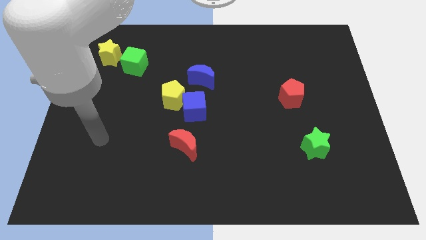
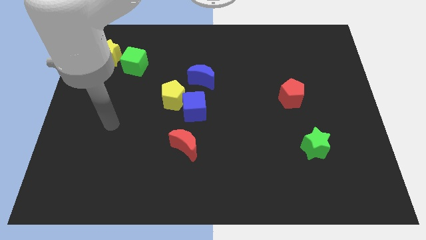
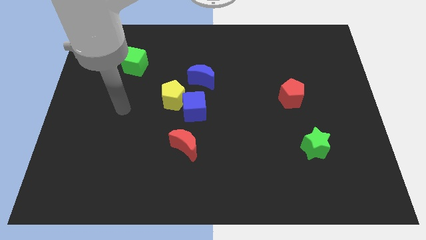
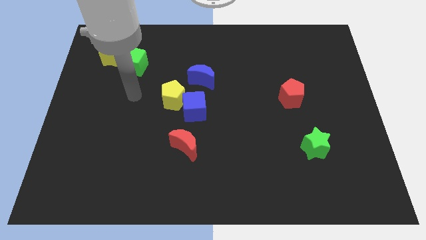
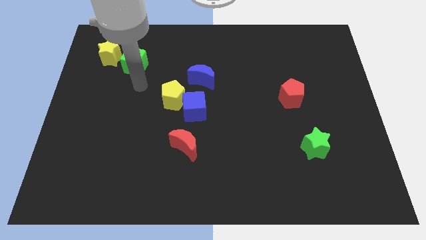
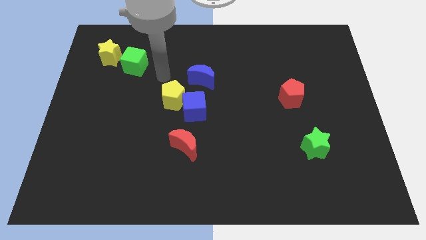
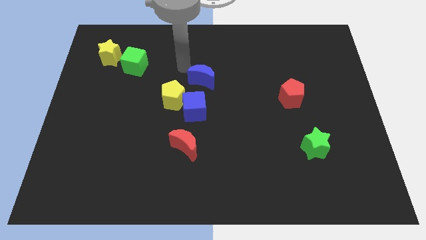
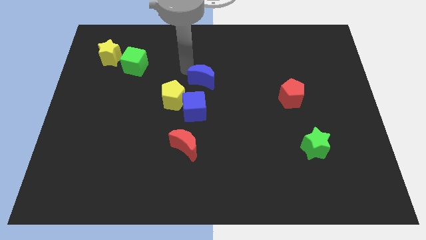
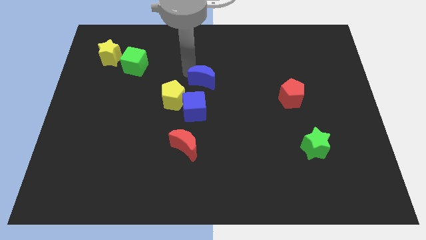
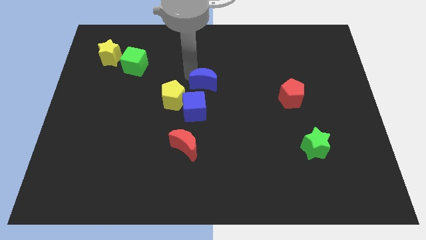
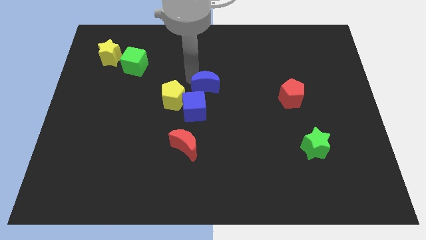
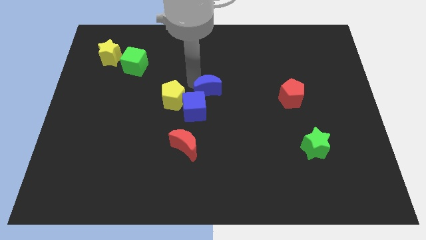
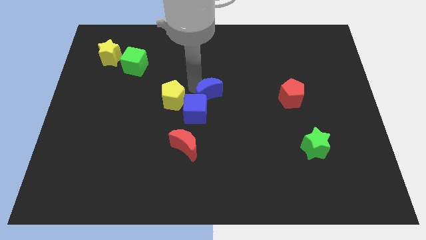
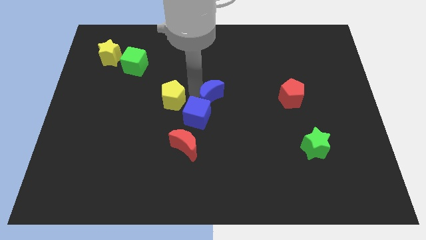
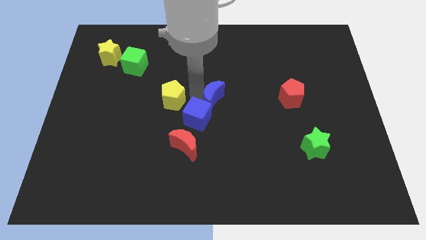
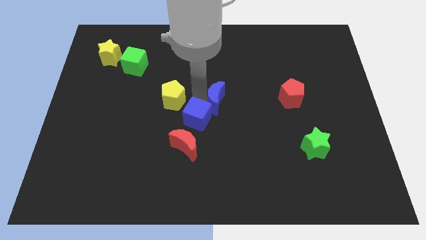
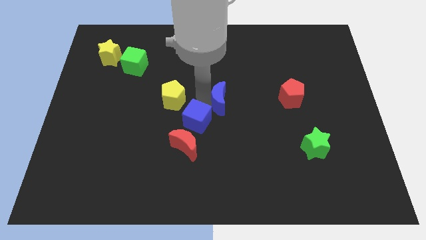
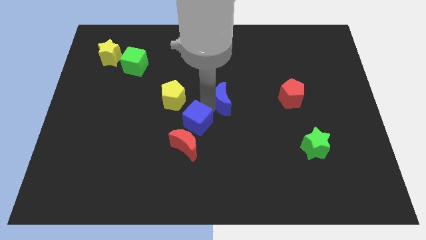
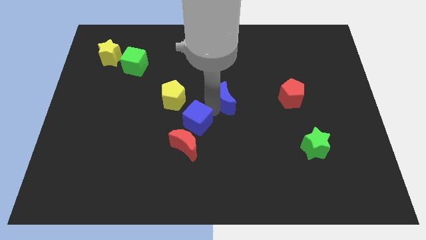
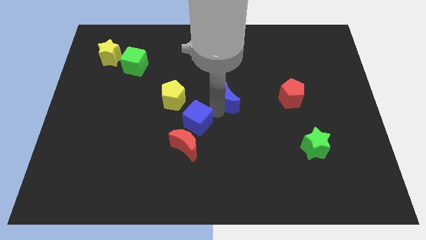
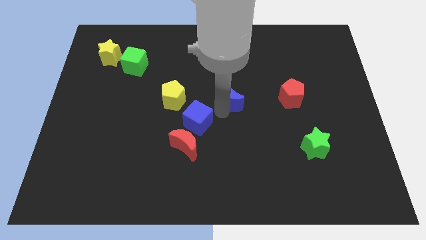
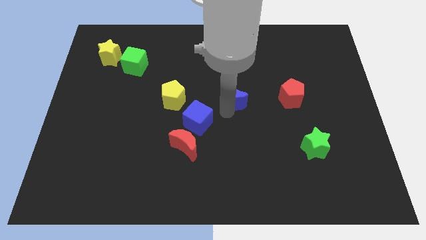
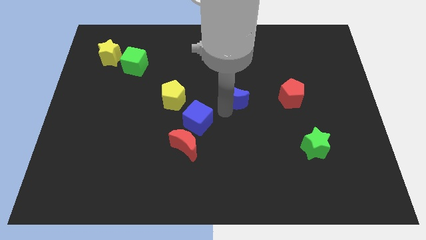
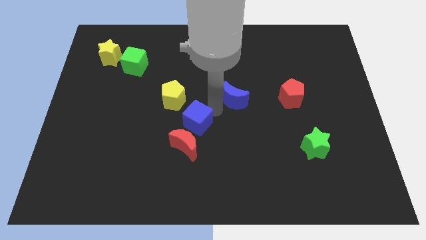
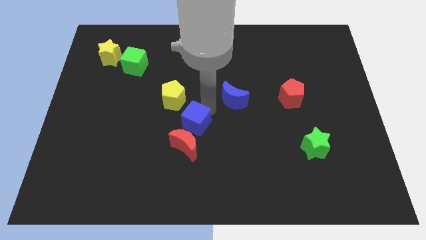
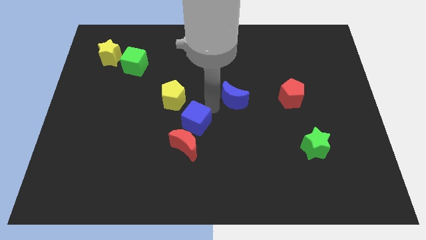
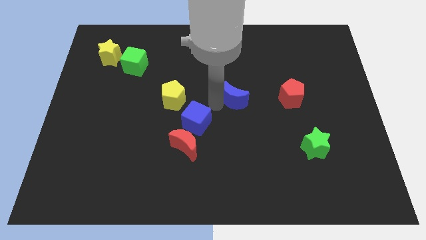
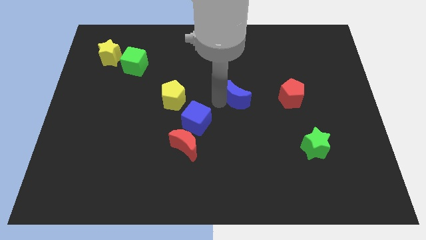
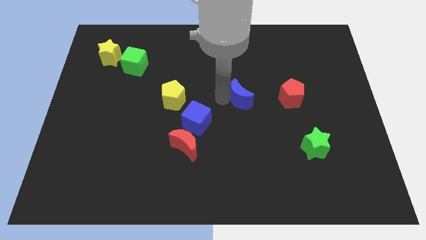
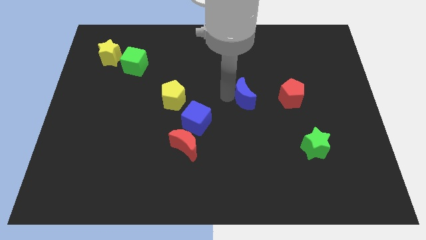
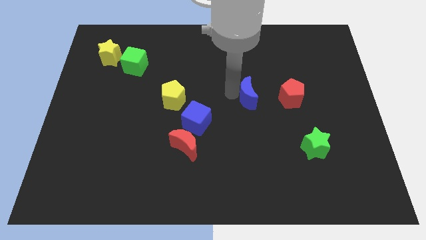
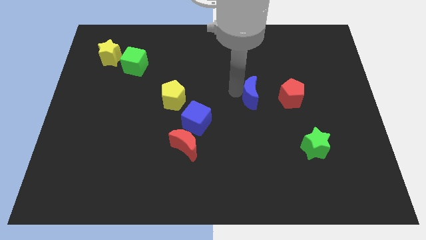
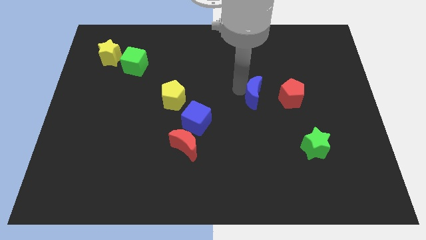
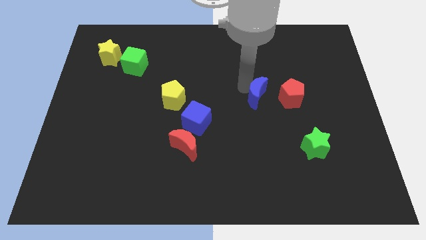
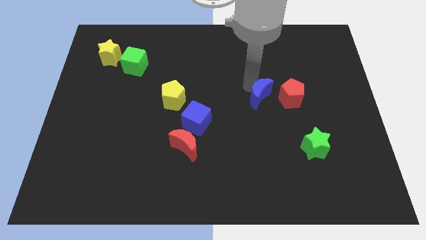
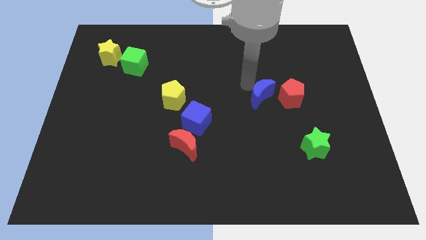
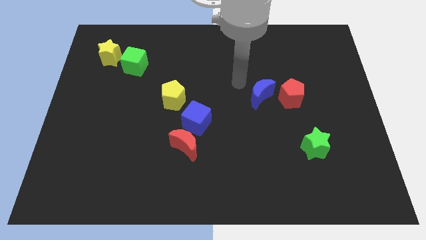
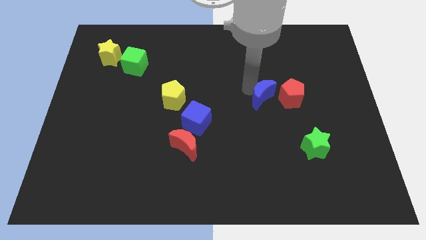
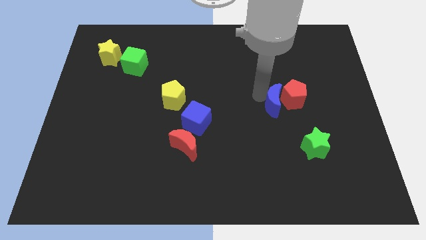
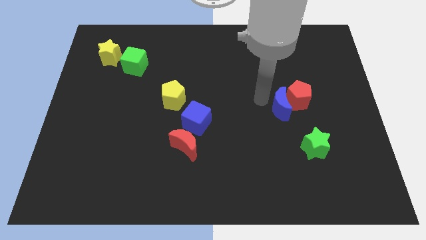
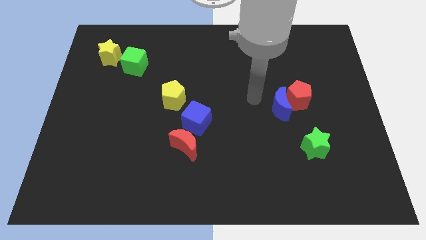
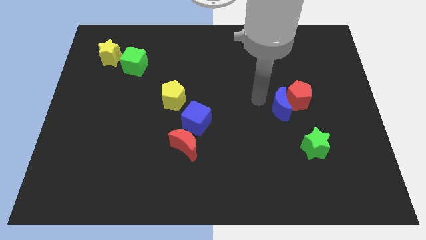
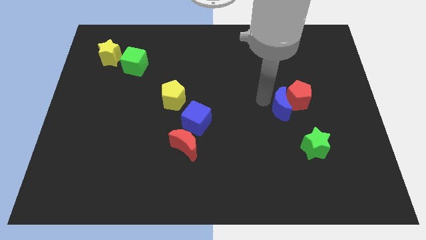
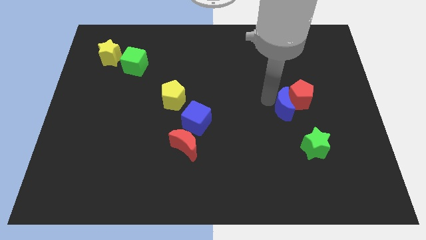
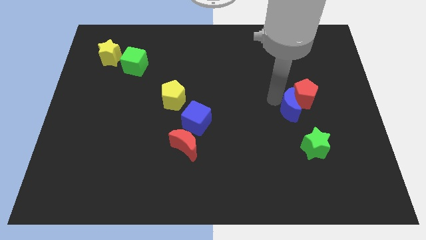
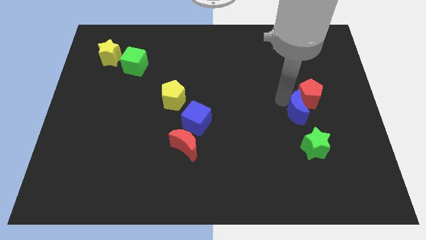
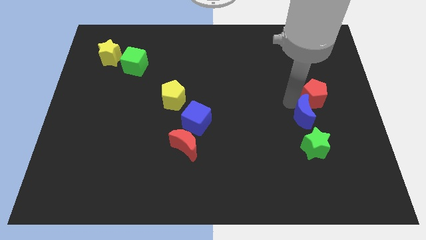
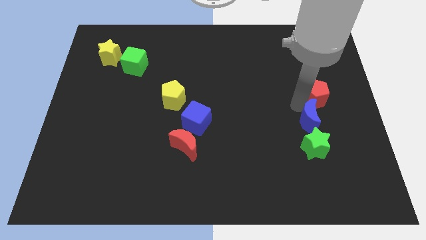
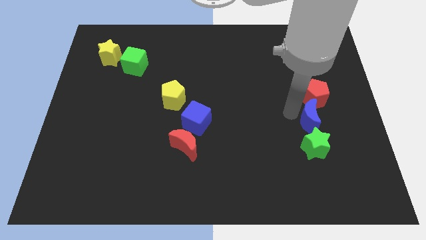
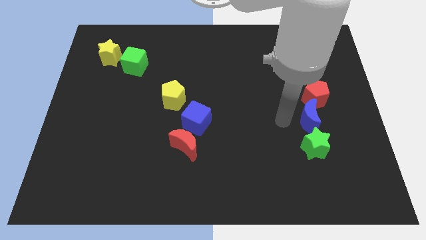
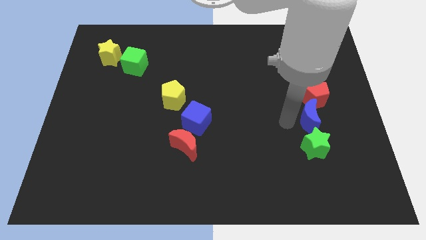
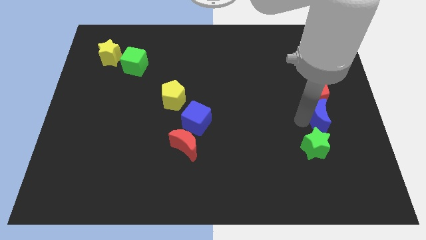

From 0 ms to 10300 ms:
move the blue moon diagonally down and to the right of the red pentagon

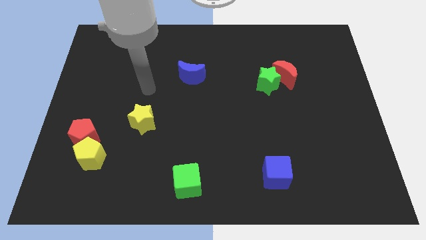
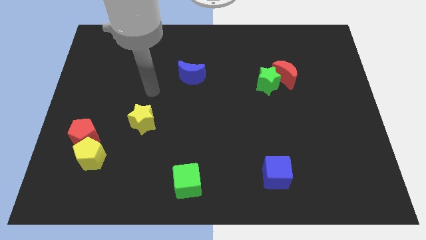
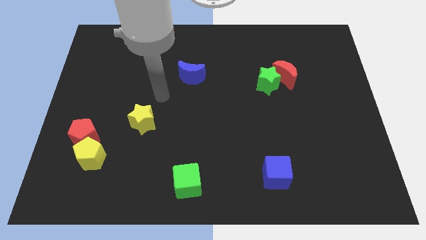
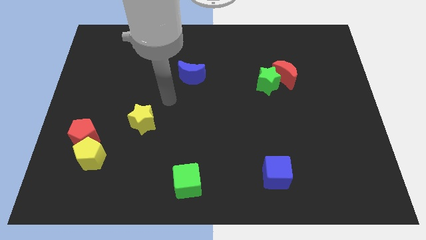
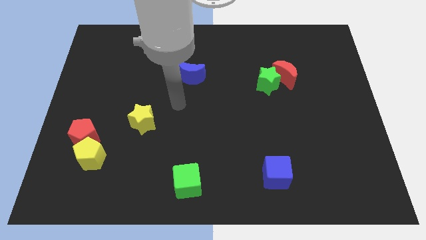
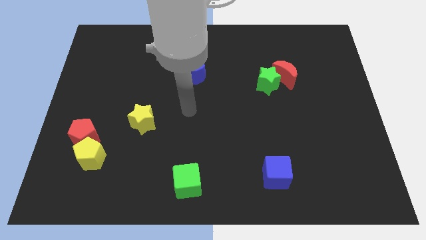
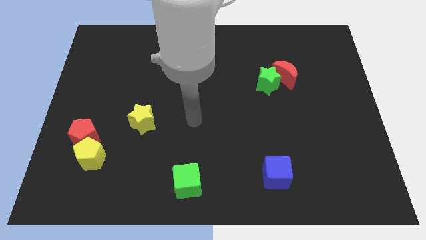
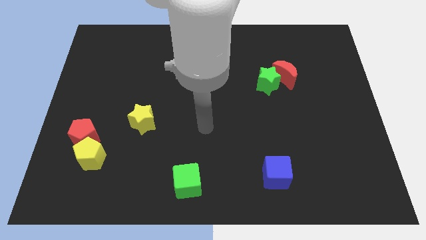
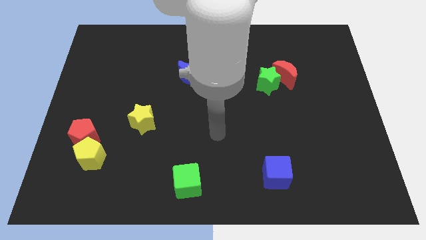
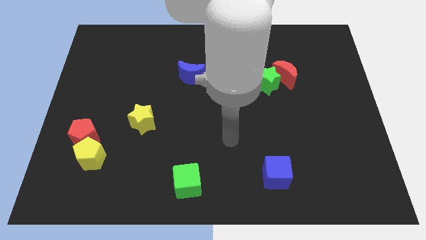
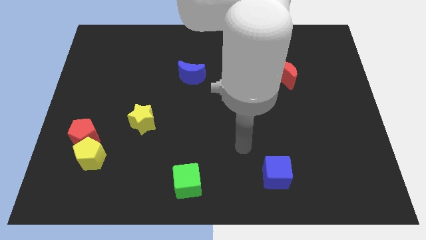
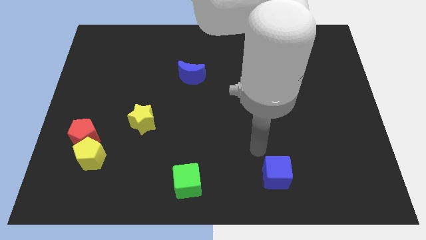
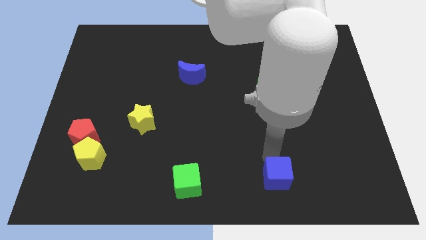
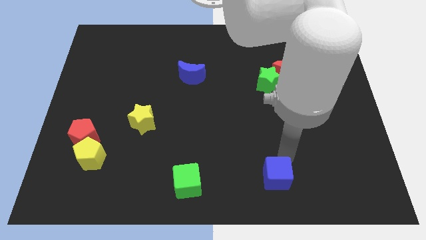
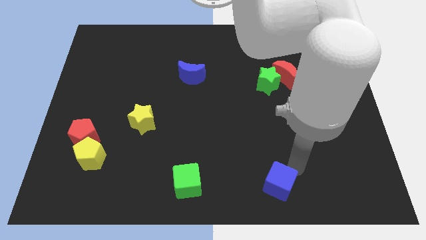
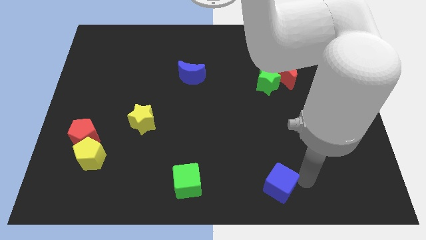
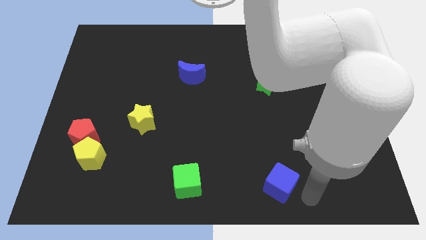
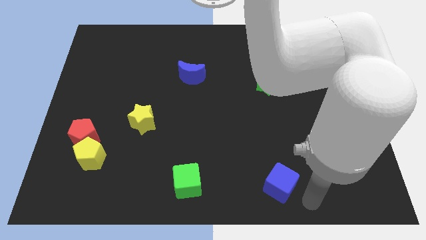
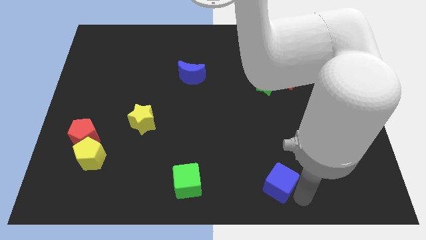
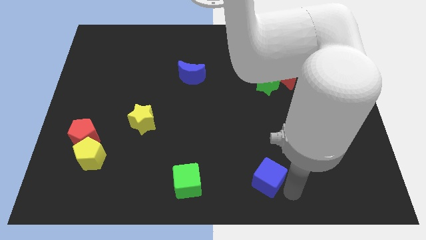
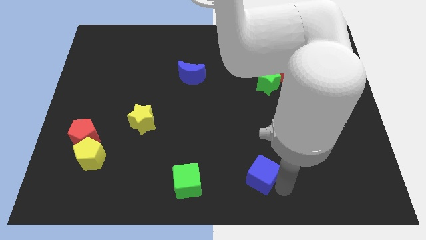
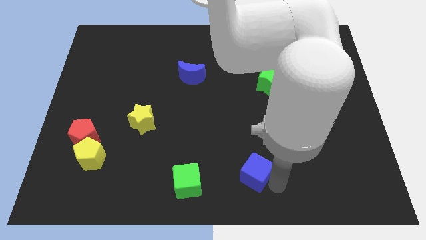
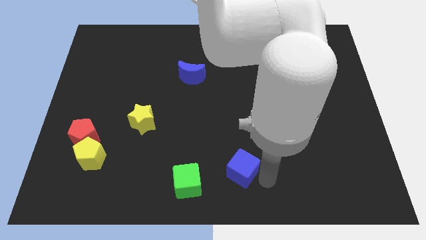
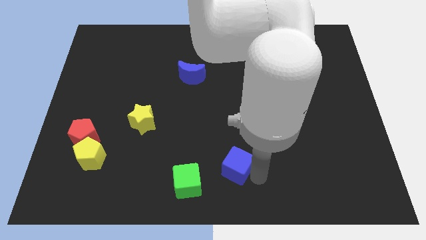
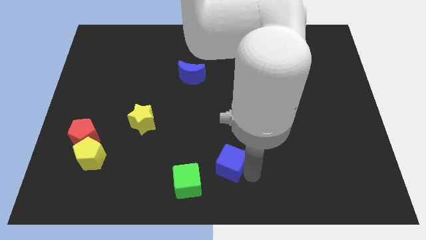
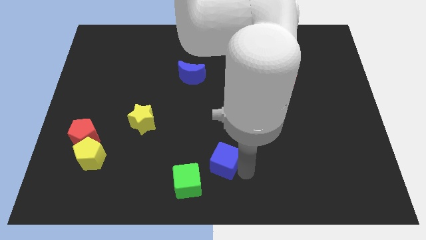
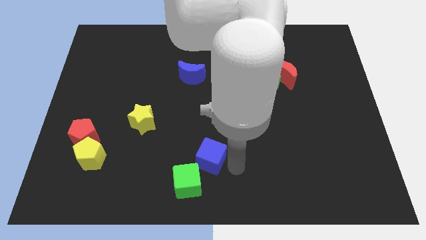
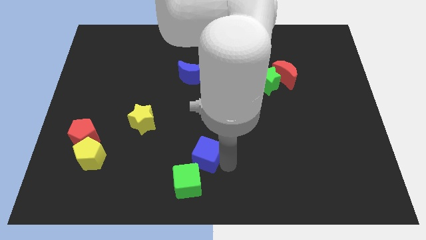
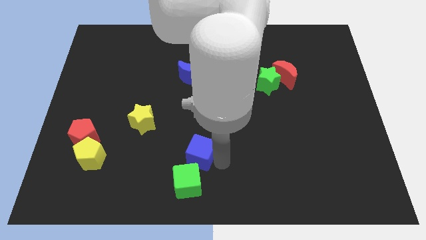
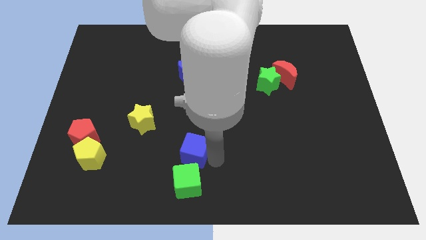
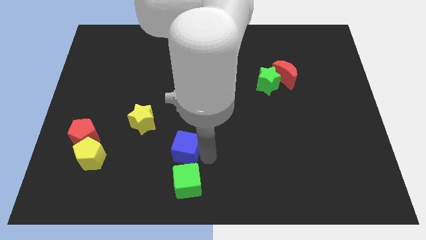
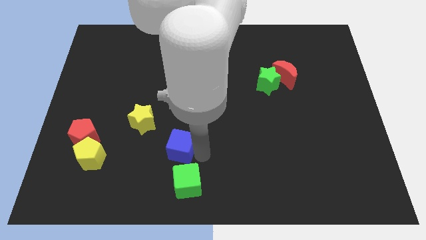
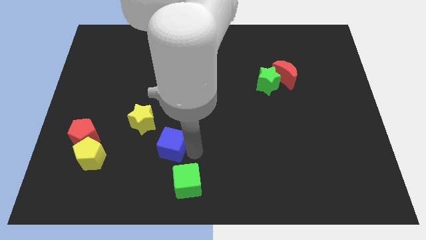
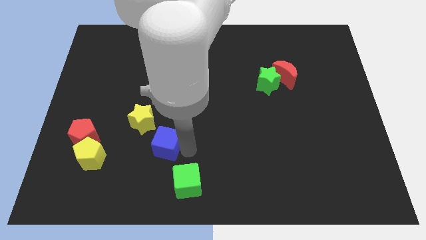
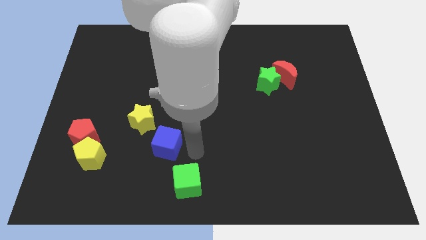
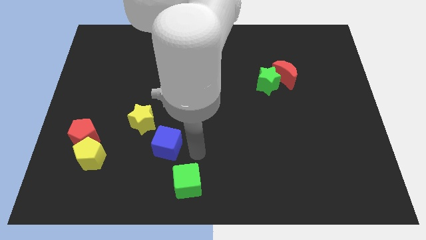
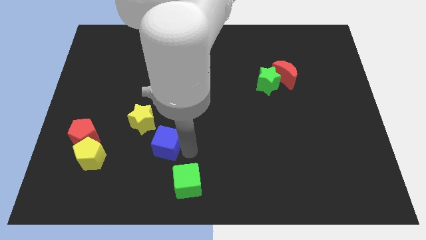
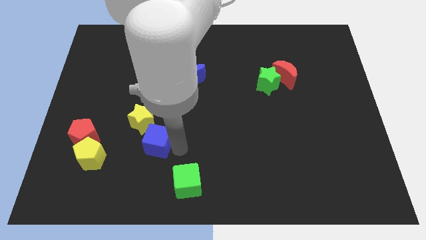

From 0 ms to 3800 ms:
put the blue cube just right of the red pentagon
